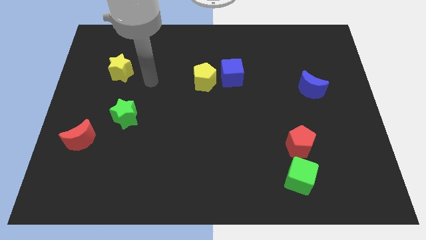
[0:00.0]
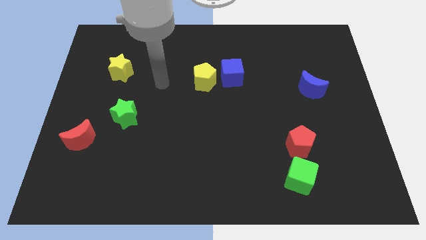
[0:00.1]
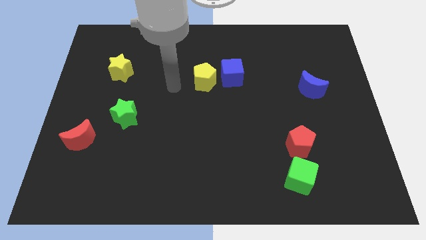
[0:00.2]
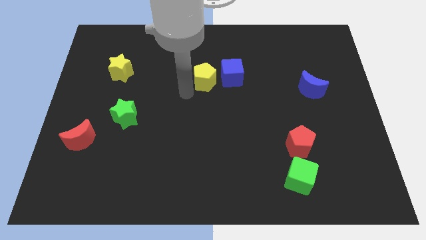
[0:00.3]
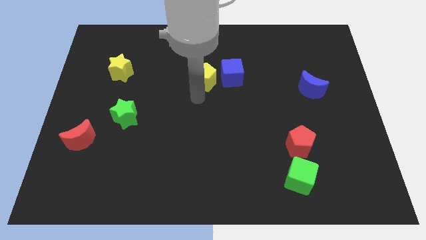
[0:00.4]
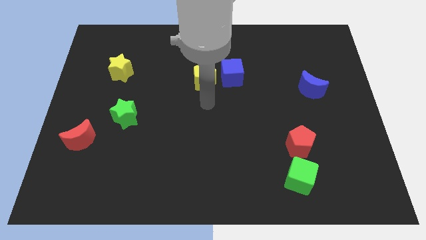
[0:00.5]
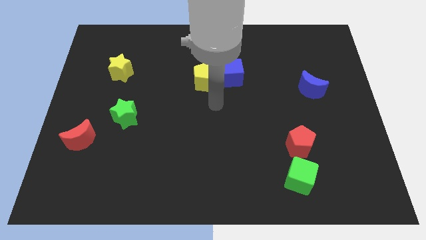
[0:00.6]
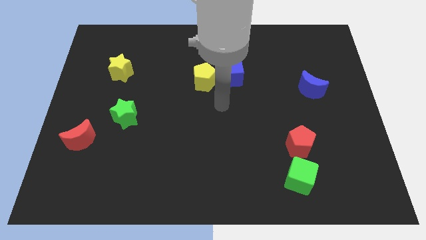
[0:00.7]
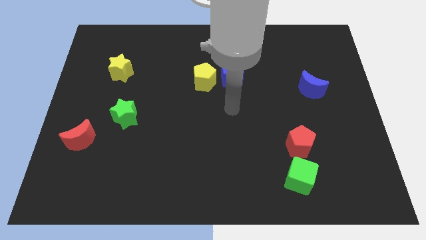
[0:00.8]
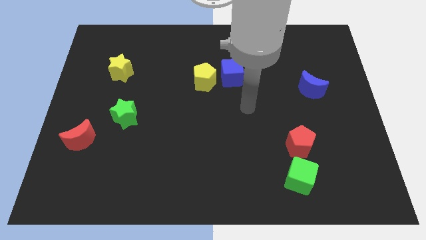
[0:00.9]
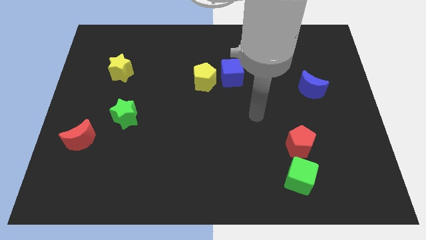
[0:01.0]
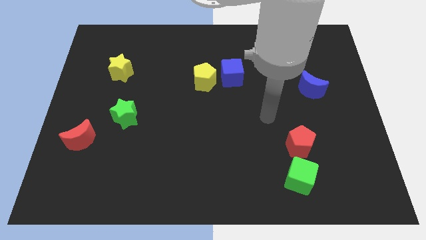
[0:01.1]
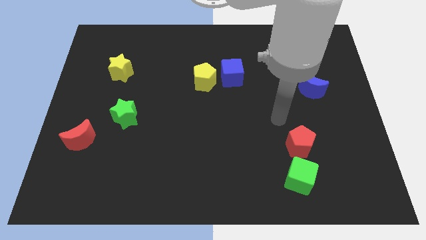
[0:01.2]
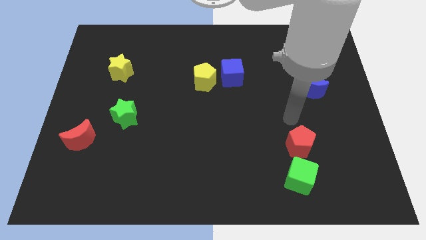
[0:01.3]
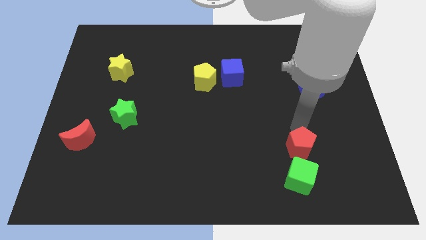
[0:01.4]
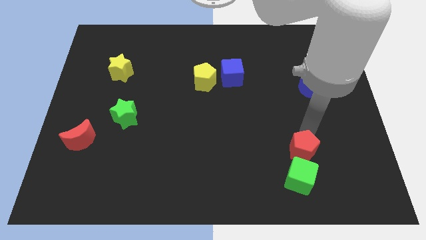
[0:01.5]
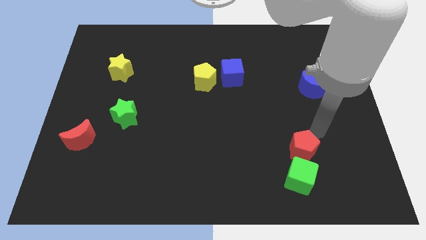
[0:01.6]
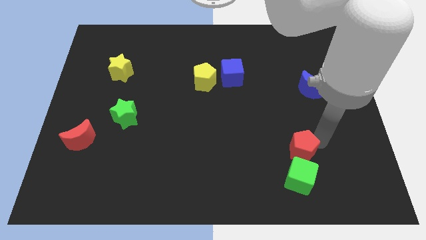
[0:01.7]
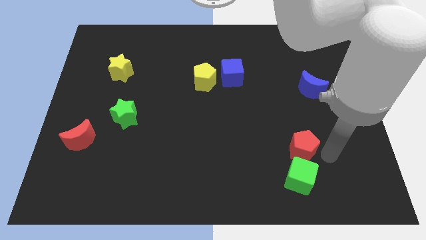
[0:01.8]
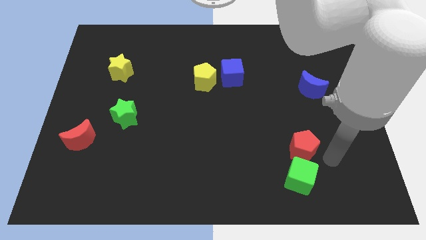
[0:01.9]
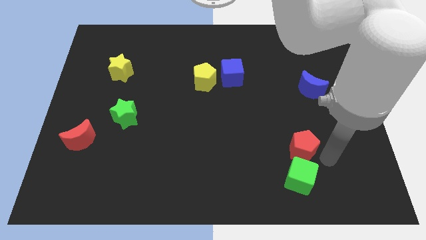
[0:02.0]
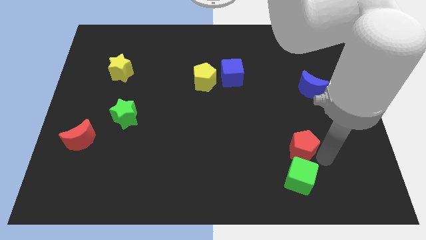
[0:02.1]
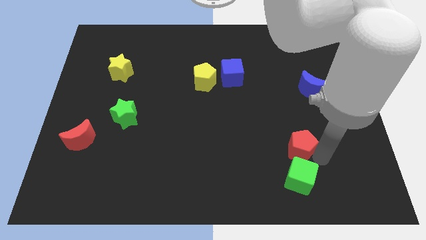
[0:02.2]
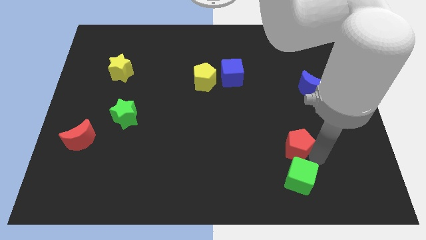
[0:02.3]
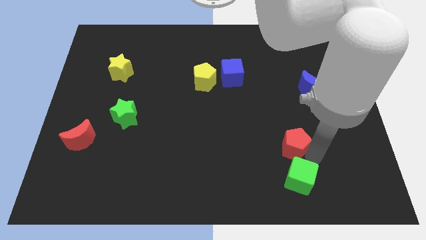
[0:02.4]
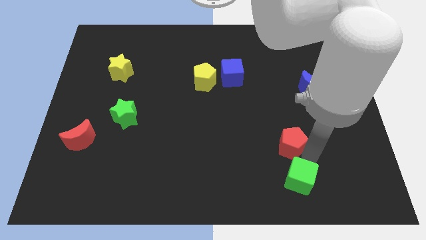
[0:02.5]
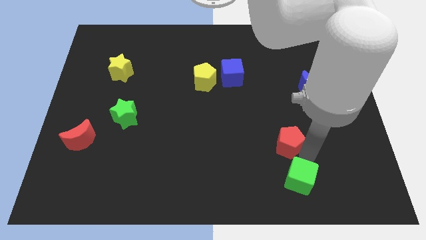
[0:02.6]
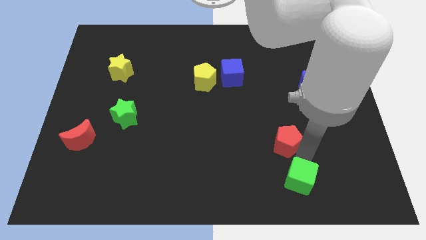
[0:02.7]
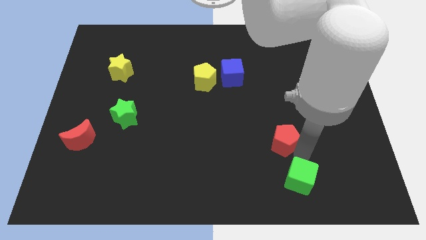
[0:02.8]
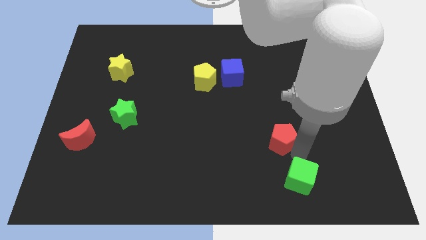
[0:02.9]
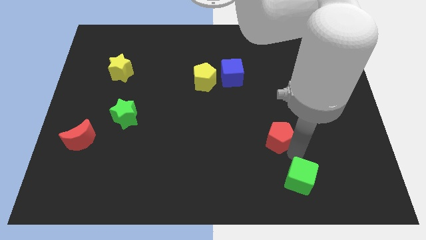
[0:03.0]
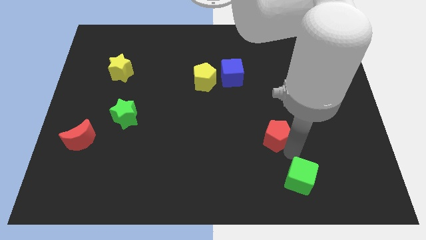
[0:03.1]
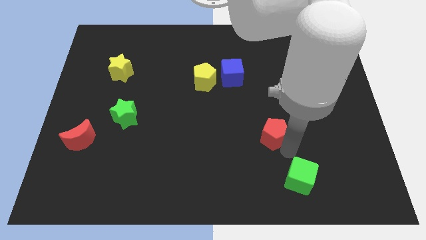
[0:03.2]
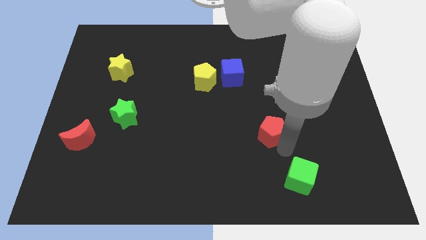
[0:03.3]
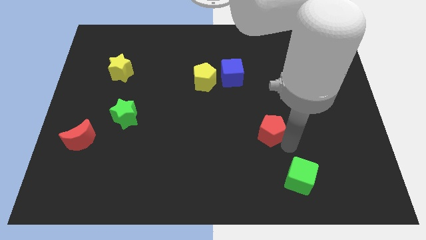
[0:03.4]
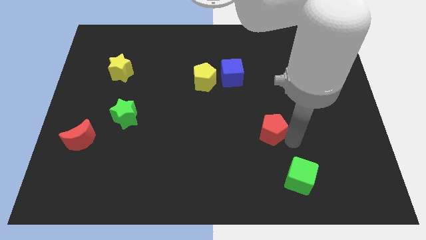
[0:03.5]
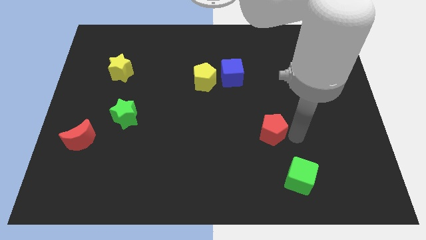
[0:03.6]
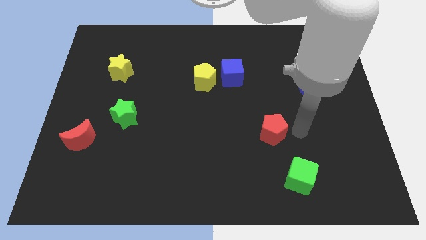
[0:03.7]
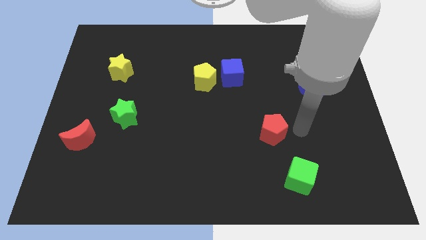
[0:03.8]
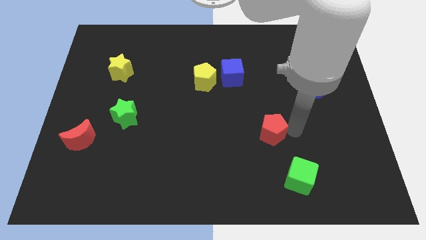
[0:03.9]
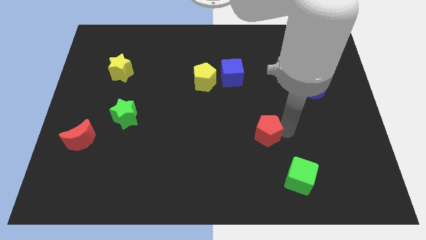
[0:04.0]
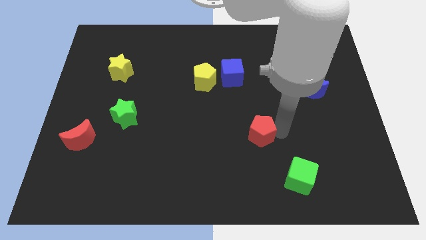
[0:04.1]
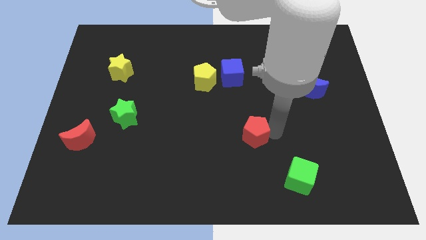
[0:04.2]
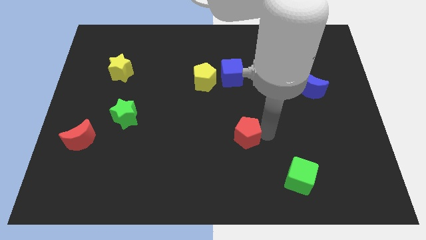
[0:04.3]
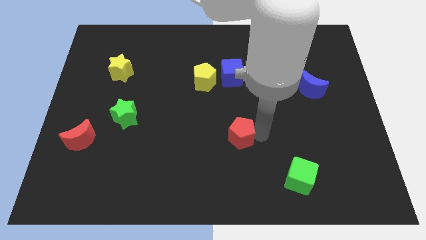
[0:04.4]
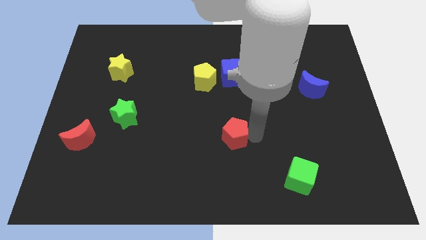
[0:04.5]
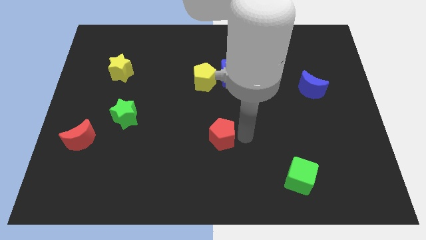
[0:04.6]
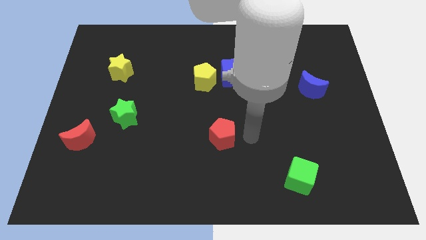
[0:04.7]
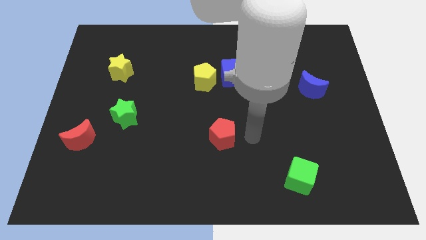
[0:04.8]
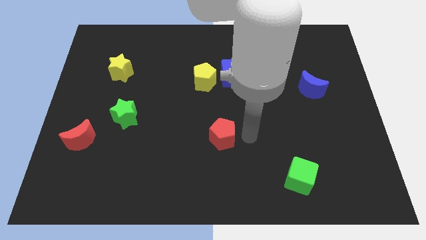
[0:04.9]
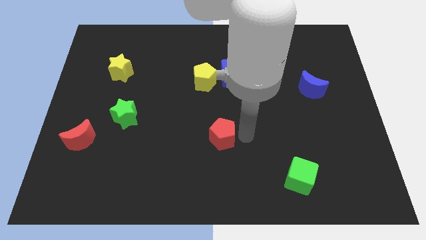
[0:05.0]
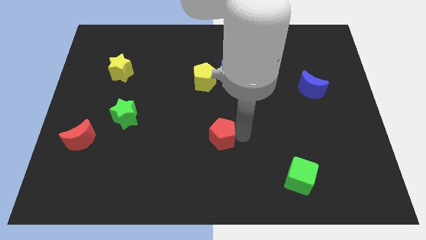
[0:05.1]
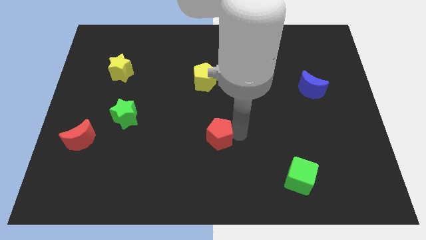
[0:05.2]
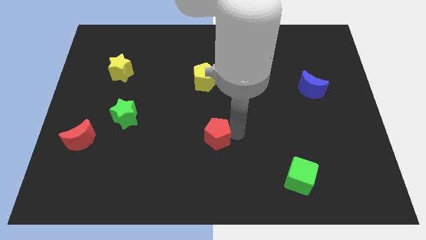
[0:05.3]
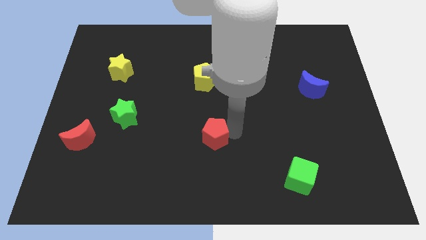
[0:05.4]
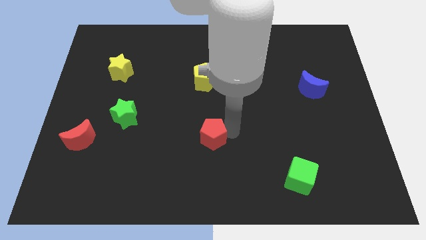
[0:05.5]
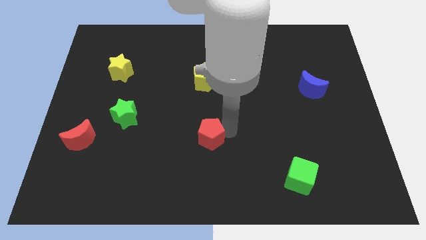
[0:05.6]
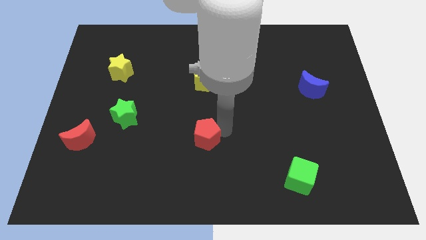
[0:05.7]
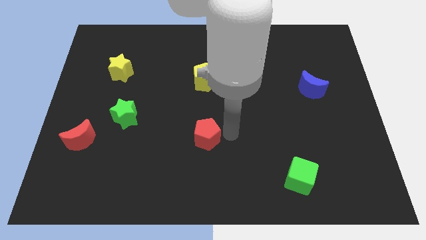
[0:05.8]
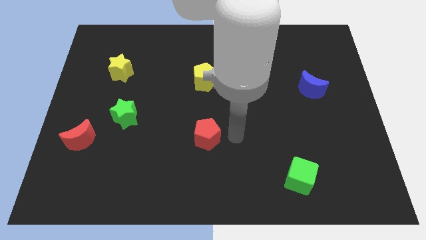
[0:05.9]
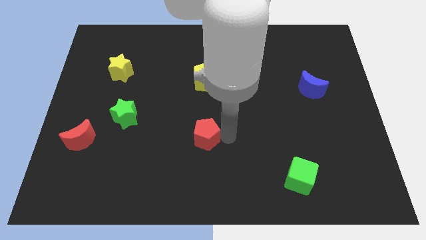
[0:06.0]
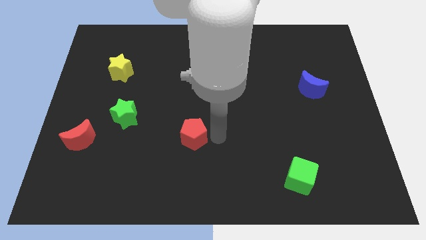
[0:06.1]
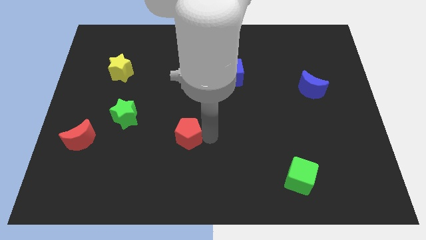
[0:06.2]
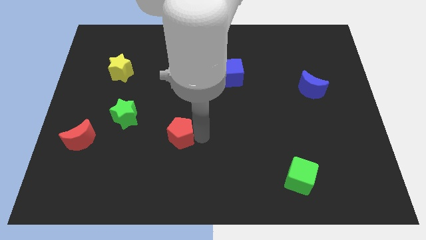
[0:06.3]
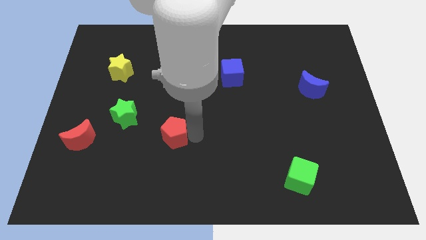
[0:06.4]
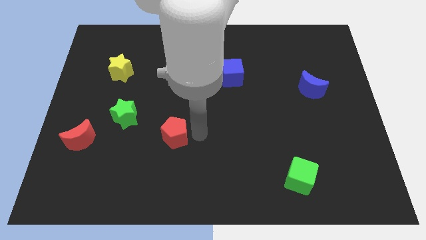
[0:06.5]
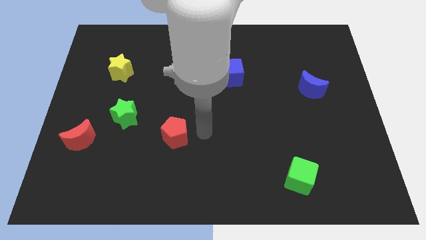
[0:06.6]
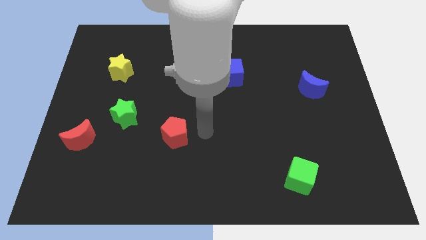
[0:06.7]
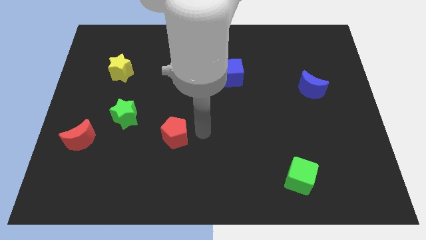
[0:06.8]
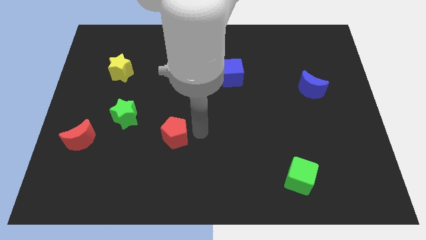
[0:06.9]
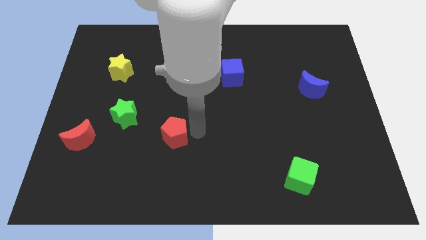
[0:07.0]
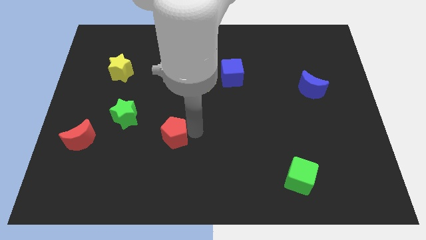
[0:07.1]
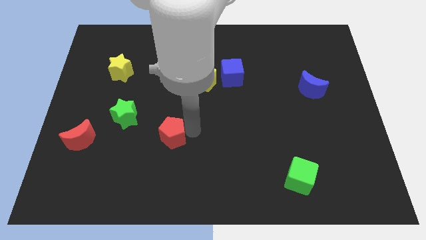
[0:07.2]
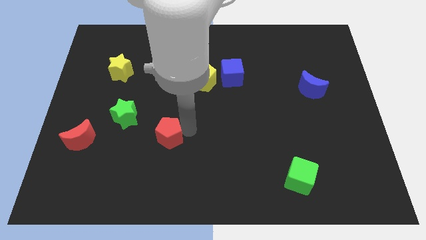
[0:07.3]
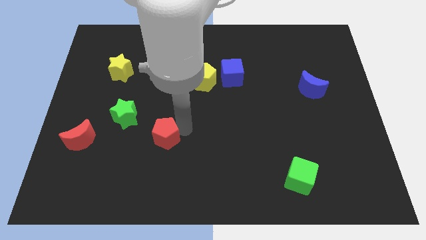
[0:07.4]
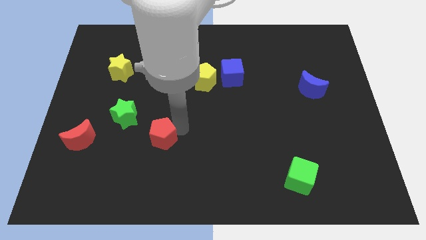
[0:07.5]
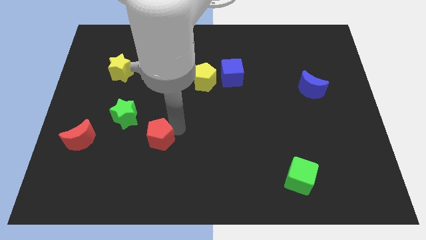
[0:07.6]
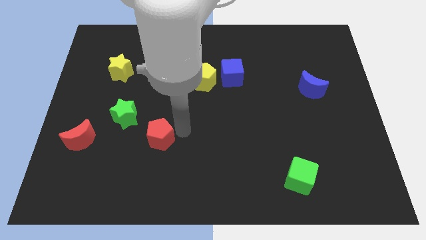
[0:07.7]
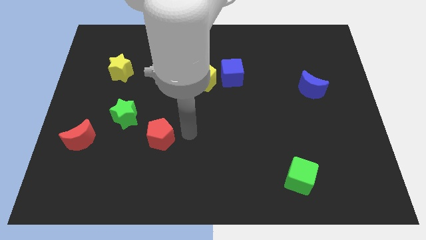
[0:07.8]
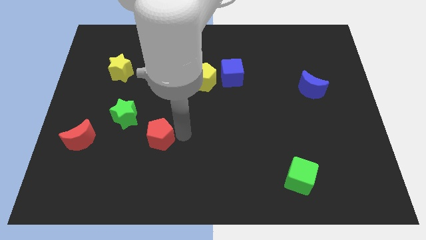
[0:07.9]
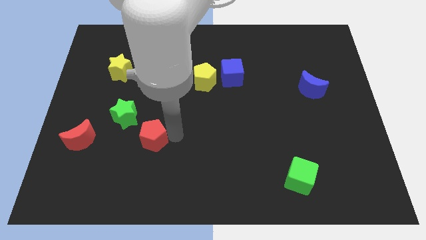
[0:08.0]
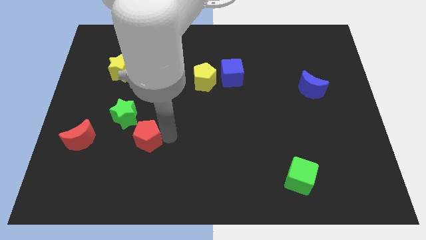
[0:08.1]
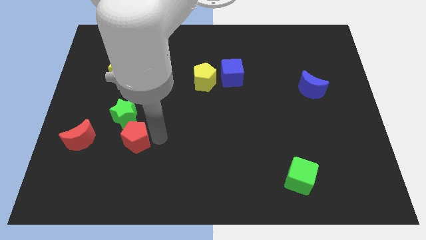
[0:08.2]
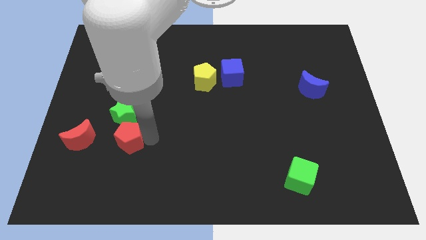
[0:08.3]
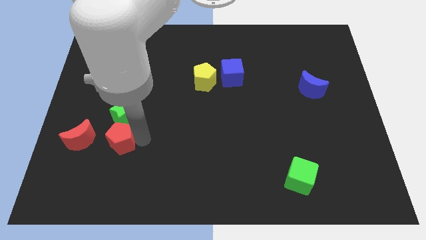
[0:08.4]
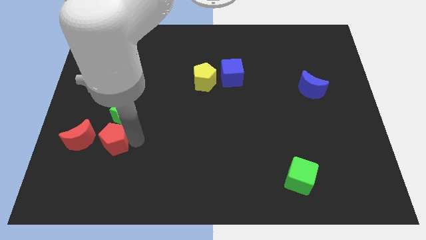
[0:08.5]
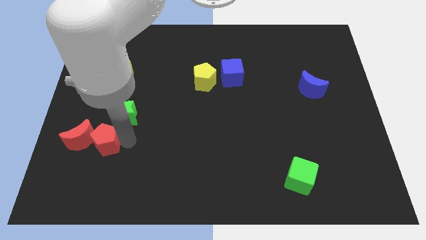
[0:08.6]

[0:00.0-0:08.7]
put the red pentagon close to the red moon
